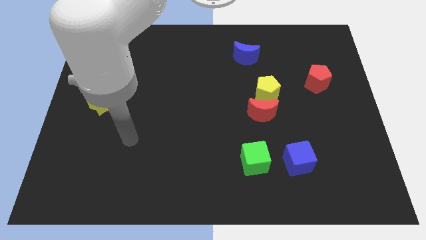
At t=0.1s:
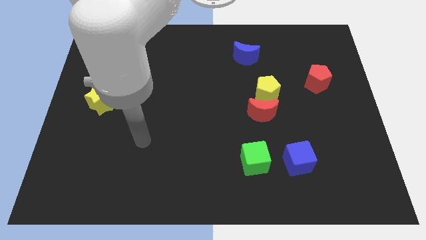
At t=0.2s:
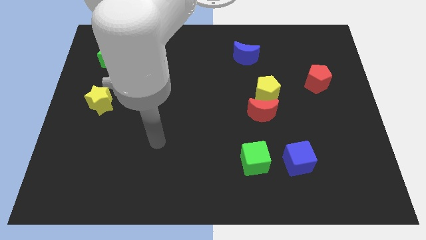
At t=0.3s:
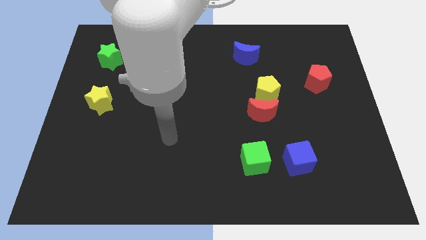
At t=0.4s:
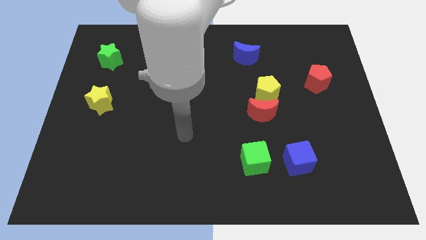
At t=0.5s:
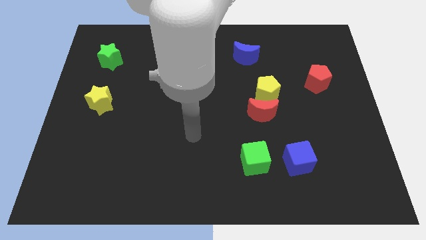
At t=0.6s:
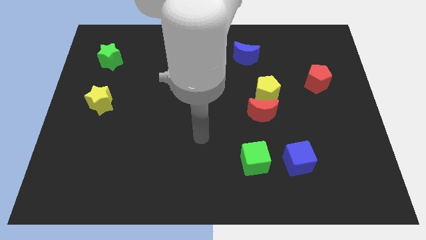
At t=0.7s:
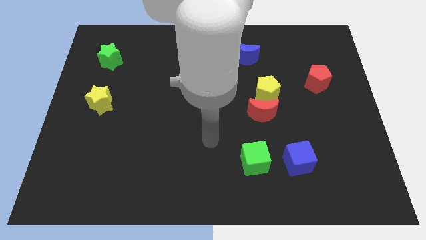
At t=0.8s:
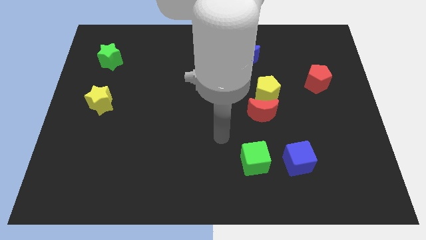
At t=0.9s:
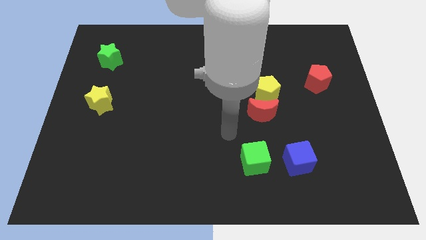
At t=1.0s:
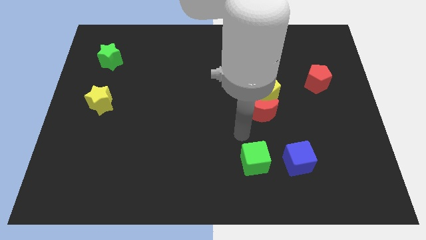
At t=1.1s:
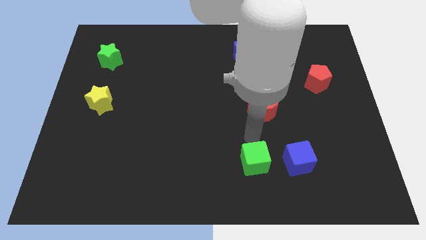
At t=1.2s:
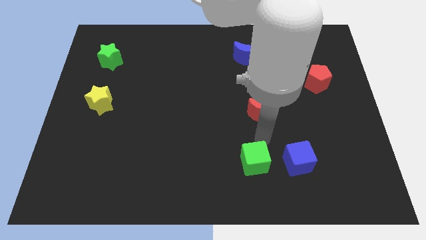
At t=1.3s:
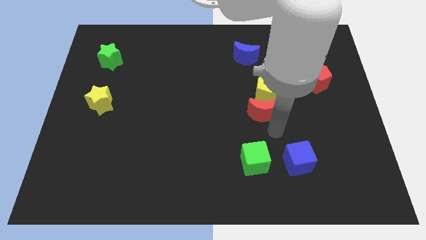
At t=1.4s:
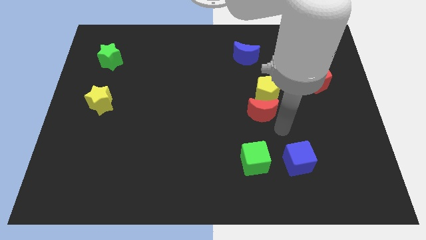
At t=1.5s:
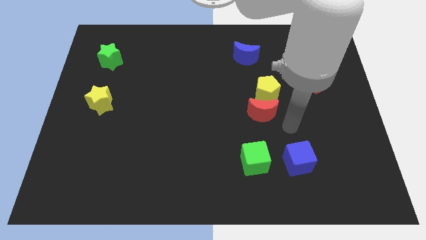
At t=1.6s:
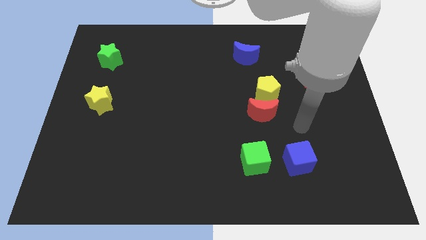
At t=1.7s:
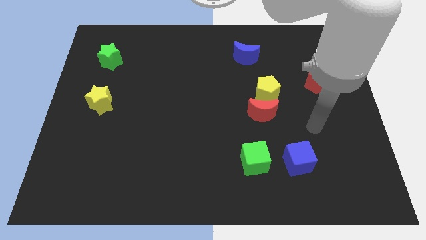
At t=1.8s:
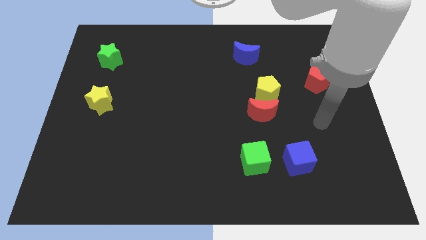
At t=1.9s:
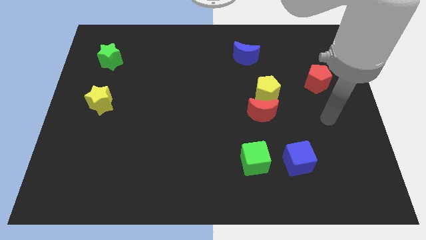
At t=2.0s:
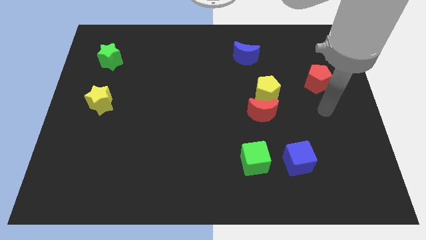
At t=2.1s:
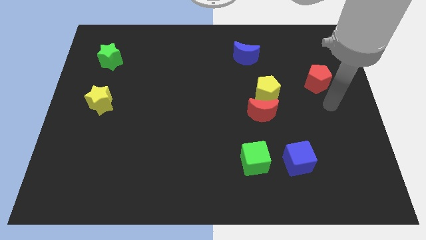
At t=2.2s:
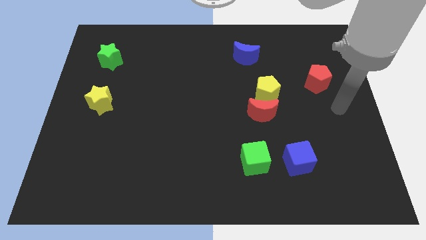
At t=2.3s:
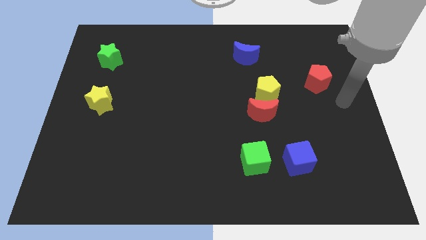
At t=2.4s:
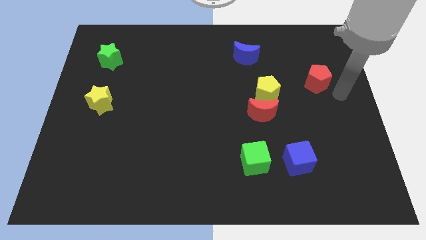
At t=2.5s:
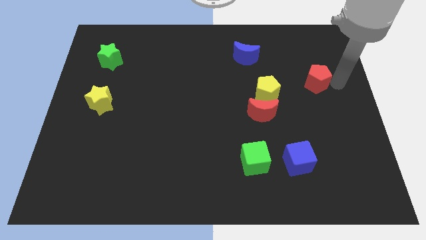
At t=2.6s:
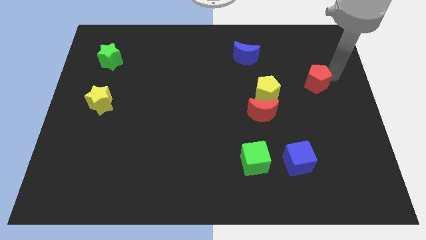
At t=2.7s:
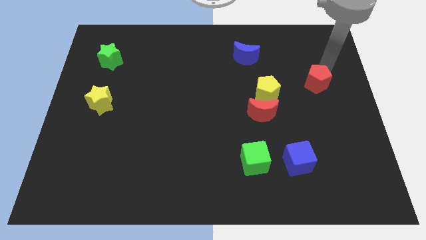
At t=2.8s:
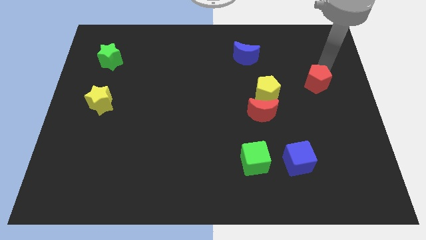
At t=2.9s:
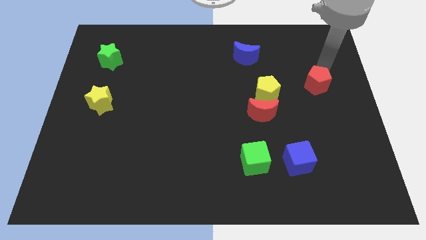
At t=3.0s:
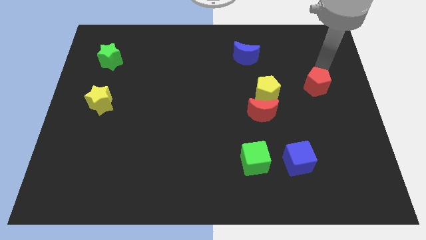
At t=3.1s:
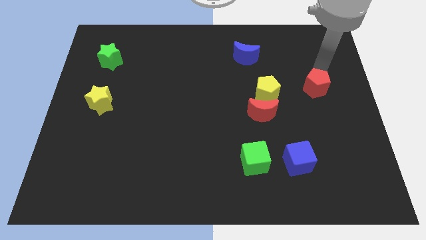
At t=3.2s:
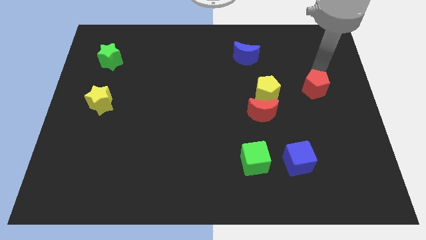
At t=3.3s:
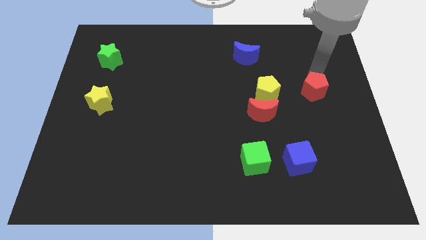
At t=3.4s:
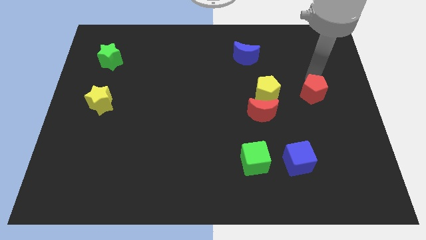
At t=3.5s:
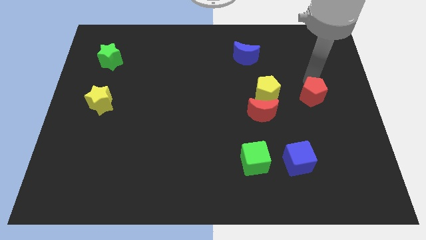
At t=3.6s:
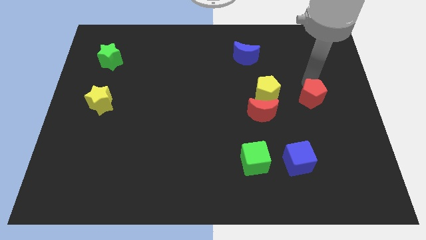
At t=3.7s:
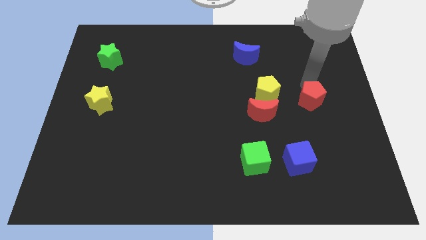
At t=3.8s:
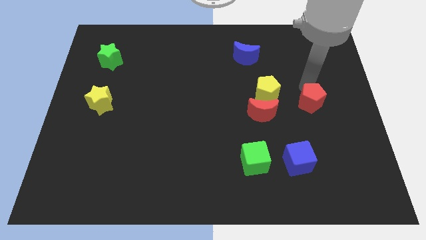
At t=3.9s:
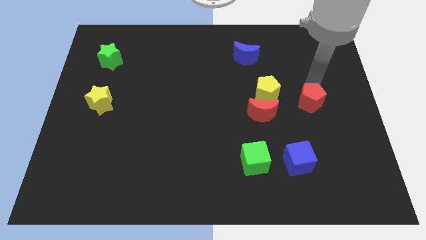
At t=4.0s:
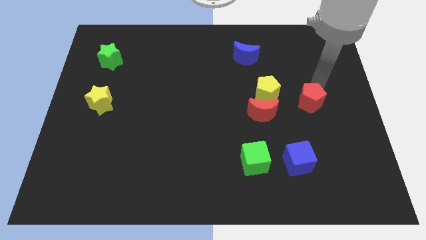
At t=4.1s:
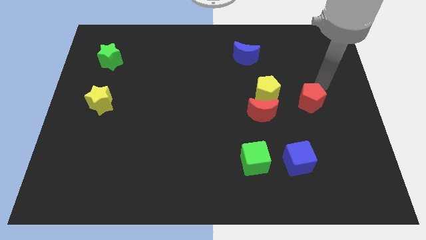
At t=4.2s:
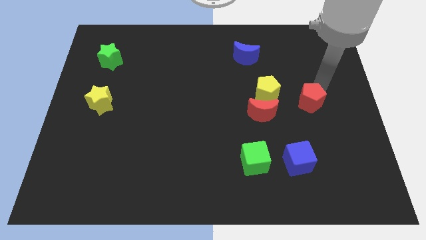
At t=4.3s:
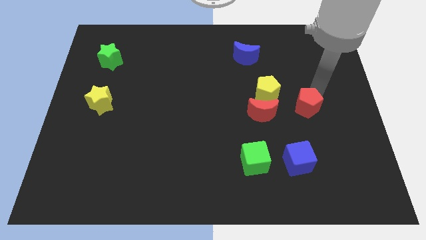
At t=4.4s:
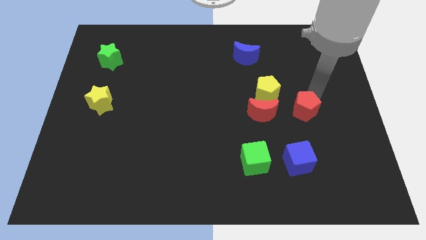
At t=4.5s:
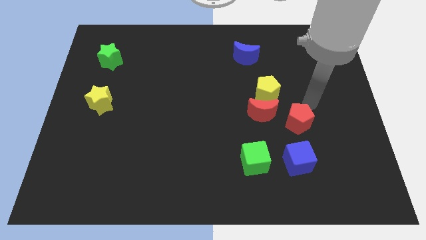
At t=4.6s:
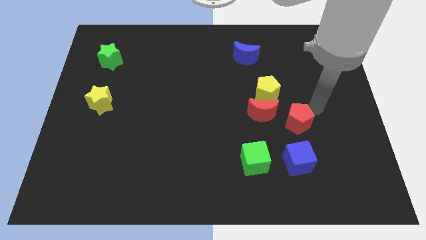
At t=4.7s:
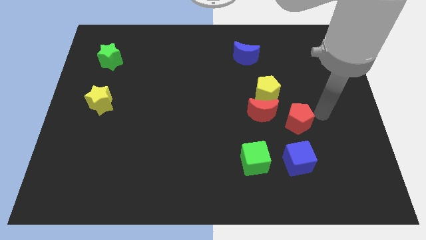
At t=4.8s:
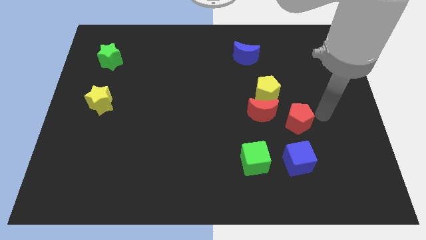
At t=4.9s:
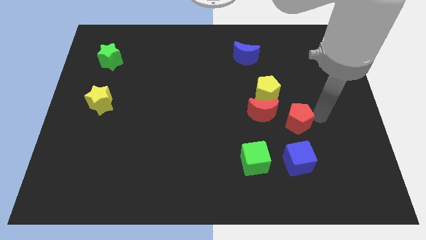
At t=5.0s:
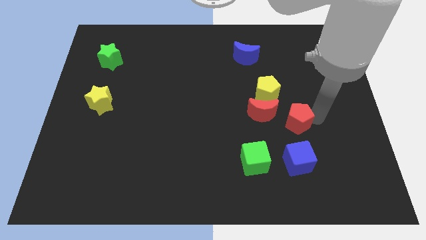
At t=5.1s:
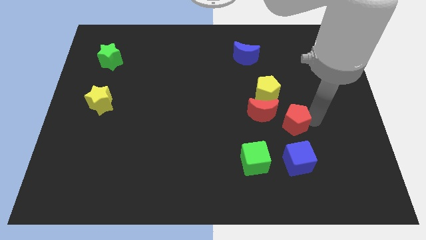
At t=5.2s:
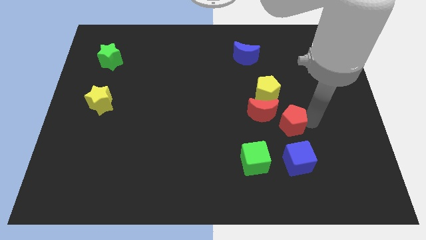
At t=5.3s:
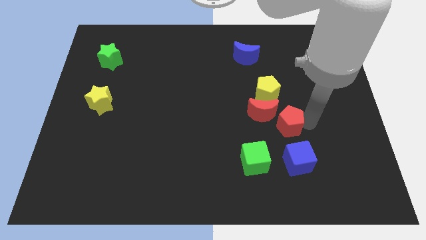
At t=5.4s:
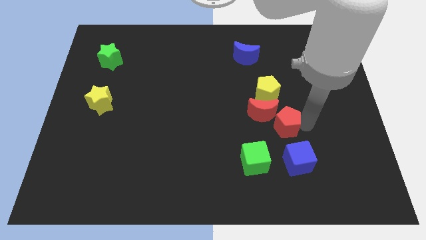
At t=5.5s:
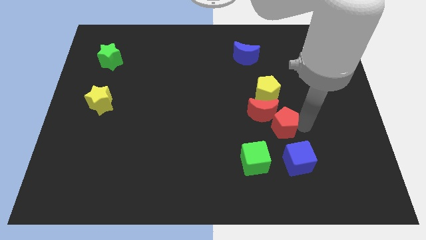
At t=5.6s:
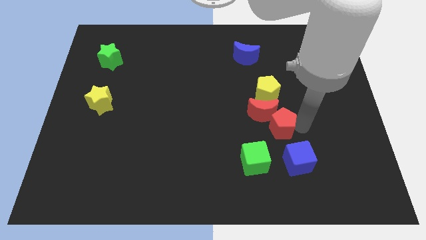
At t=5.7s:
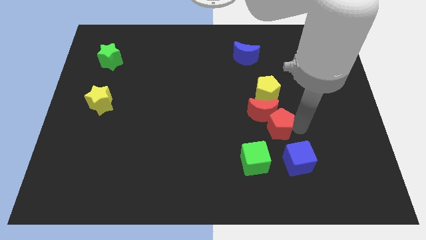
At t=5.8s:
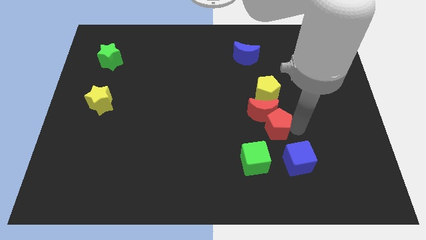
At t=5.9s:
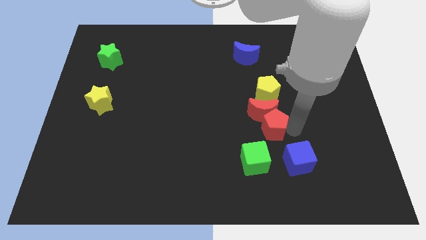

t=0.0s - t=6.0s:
put the red pentagon diagonally down and to the left of the red moon

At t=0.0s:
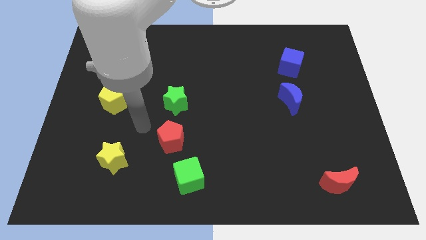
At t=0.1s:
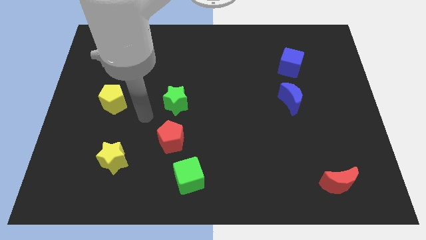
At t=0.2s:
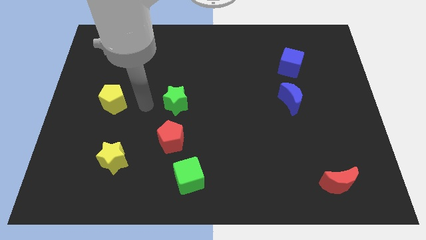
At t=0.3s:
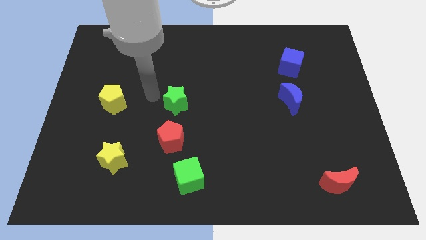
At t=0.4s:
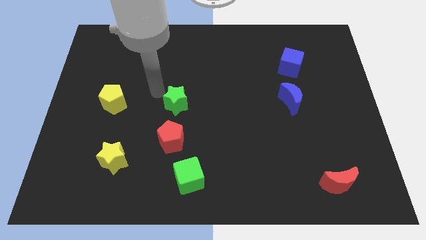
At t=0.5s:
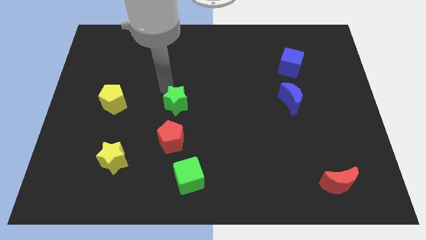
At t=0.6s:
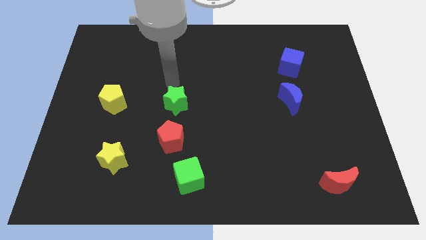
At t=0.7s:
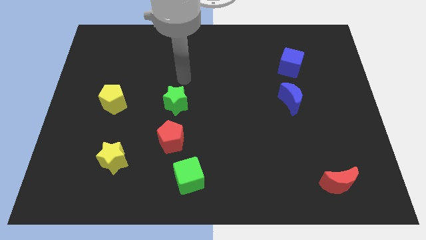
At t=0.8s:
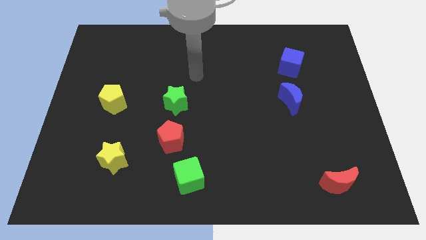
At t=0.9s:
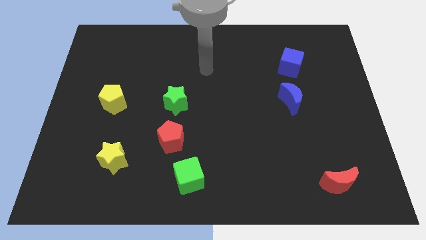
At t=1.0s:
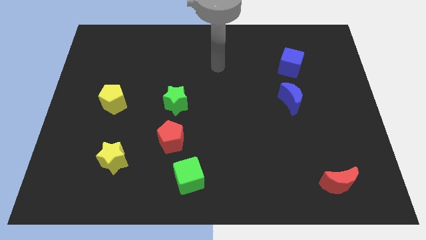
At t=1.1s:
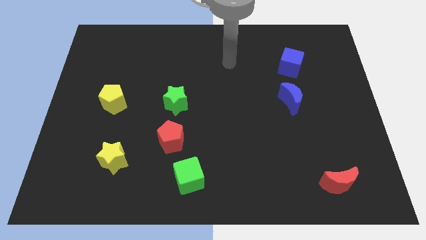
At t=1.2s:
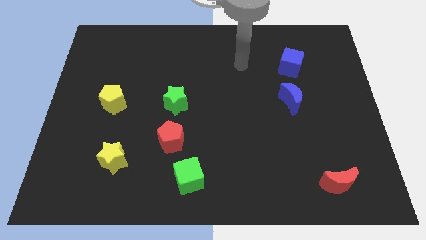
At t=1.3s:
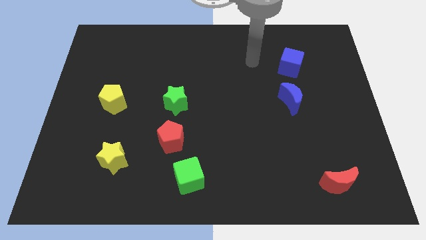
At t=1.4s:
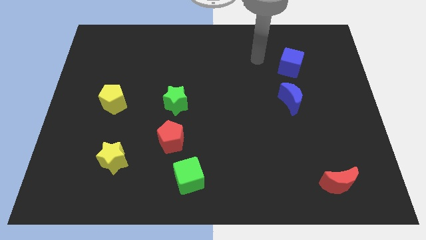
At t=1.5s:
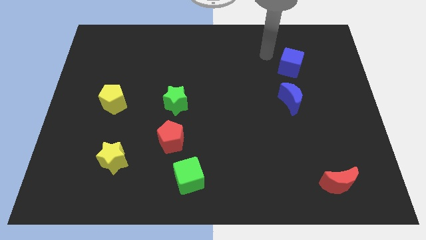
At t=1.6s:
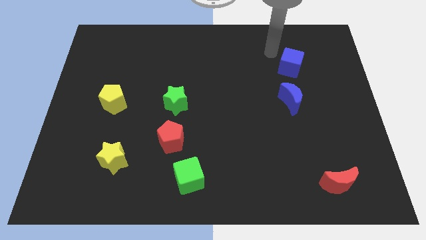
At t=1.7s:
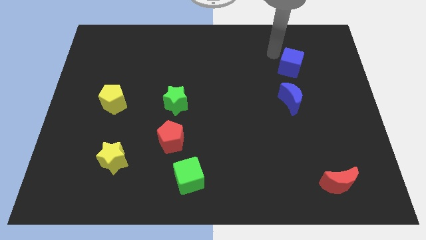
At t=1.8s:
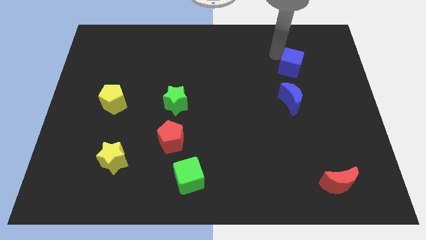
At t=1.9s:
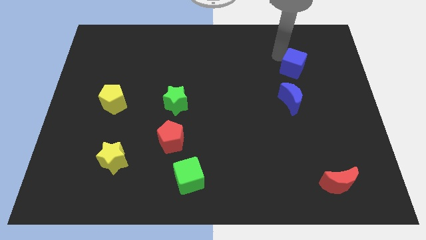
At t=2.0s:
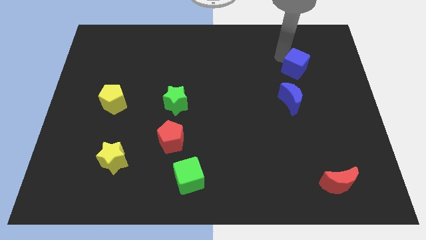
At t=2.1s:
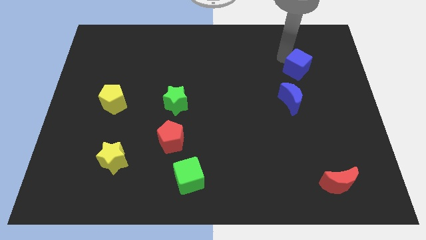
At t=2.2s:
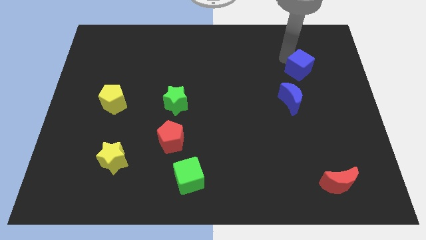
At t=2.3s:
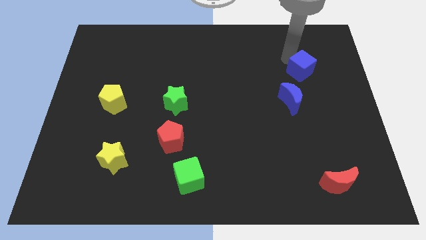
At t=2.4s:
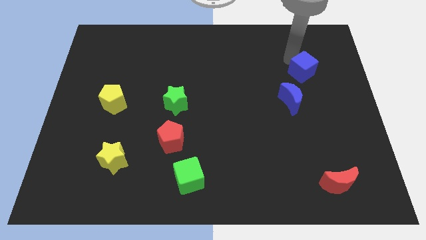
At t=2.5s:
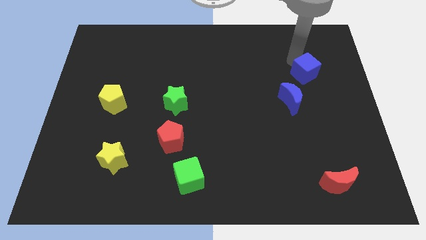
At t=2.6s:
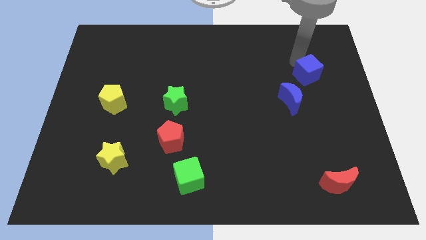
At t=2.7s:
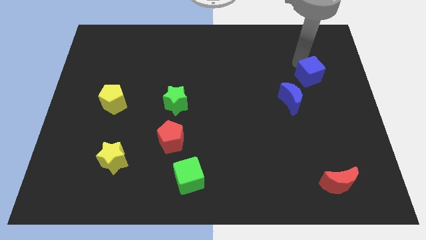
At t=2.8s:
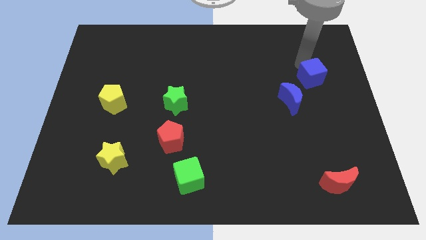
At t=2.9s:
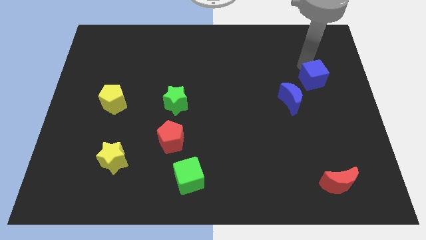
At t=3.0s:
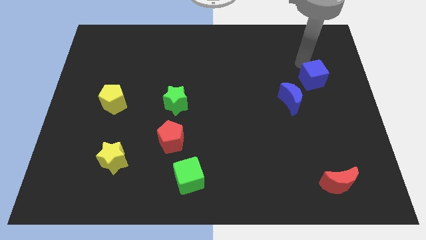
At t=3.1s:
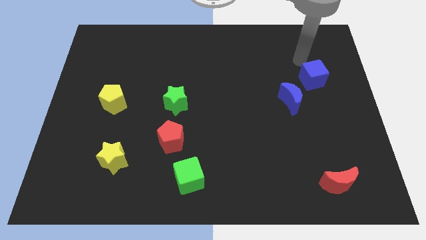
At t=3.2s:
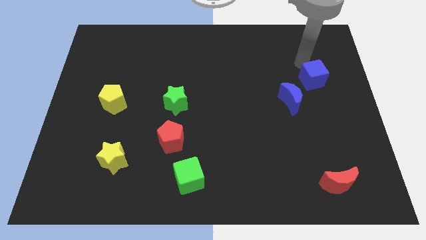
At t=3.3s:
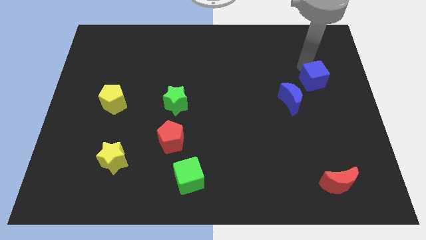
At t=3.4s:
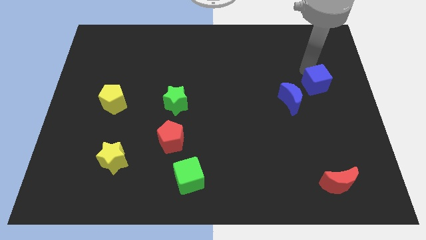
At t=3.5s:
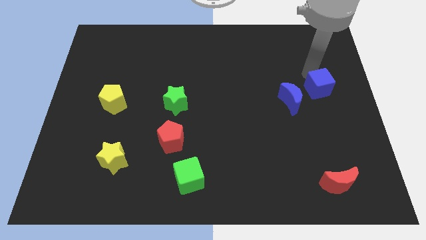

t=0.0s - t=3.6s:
push the blue cube to the right of the blue moon
